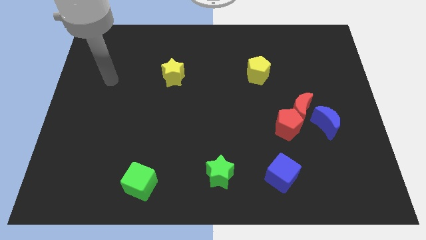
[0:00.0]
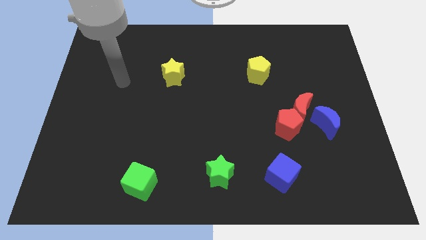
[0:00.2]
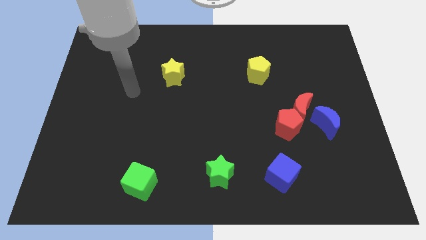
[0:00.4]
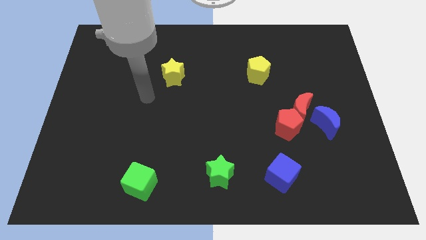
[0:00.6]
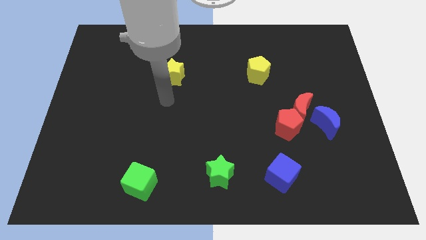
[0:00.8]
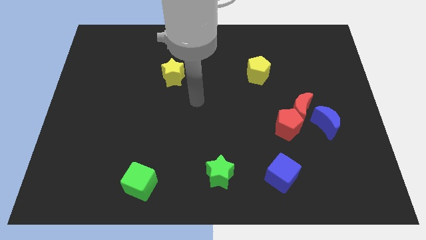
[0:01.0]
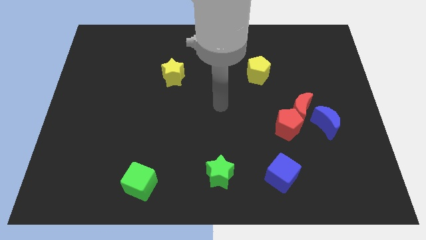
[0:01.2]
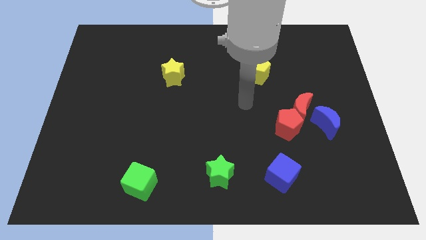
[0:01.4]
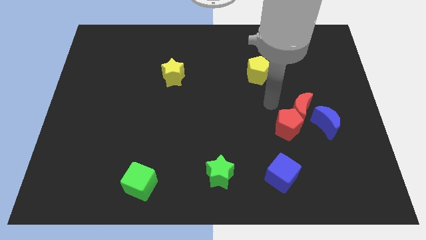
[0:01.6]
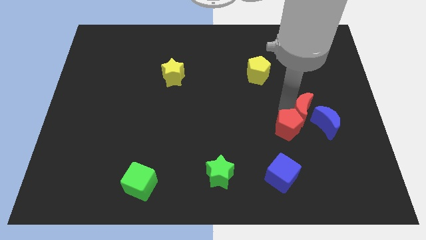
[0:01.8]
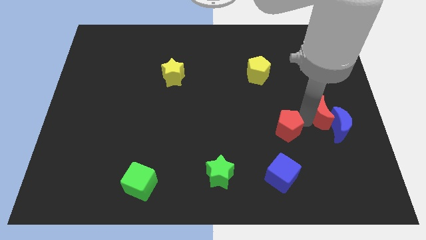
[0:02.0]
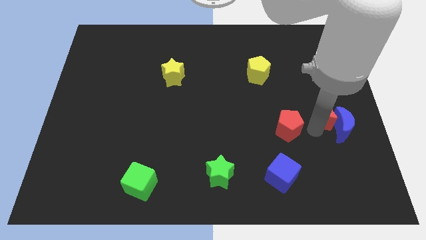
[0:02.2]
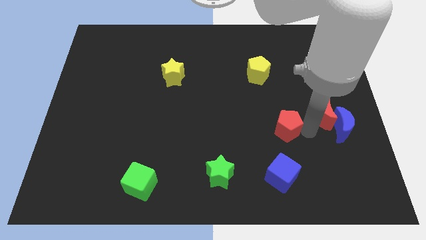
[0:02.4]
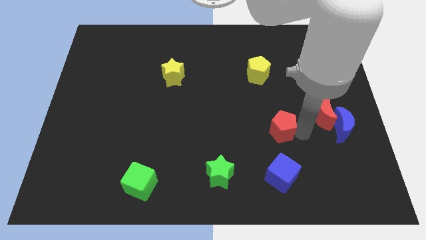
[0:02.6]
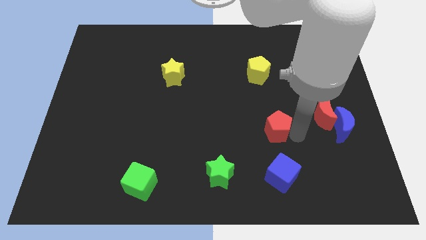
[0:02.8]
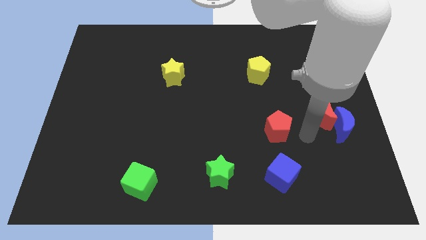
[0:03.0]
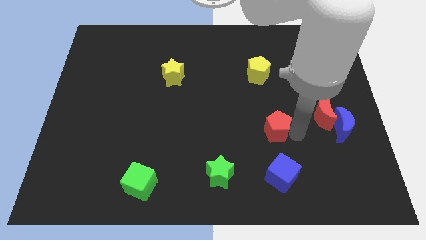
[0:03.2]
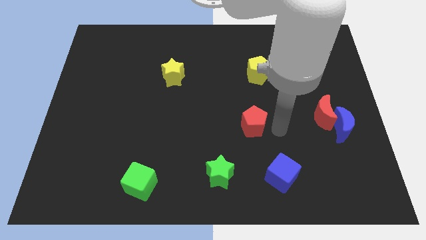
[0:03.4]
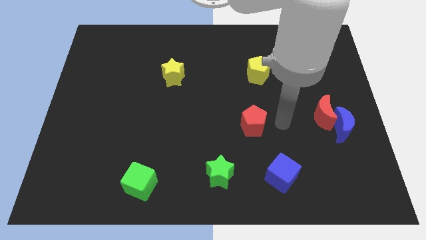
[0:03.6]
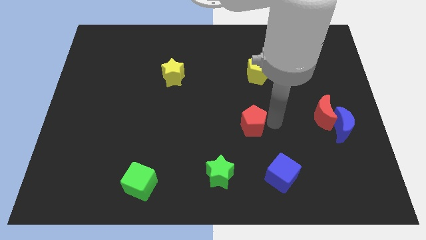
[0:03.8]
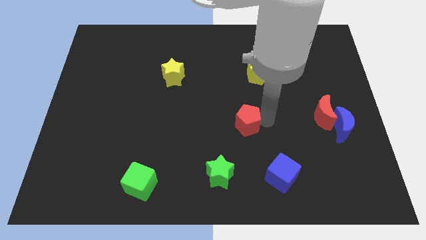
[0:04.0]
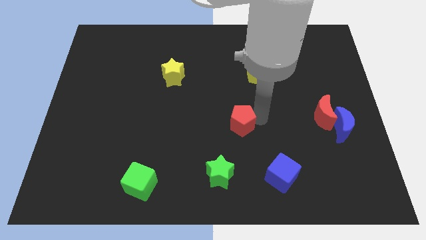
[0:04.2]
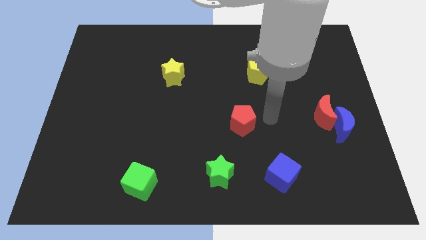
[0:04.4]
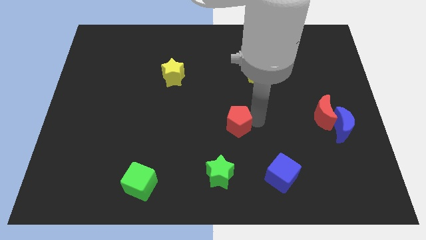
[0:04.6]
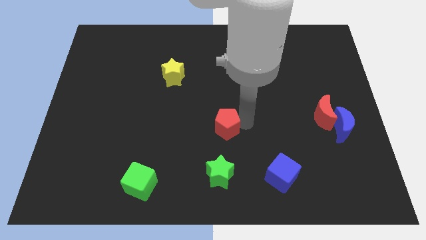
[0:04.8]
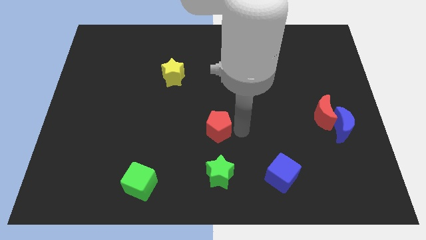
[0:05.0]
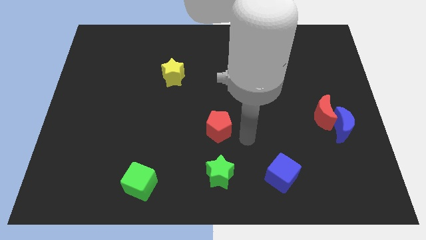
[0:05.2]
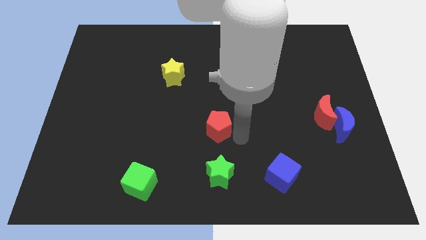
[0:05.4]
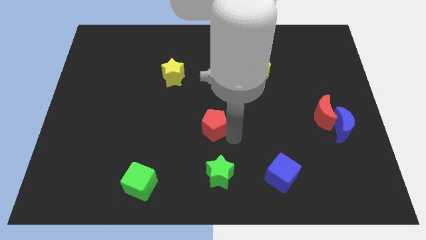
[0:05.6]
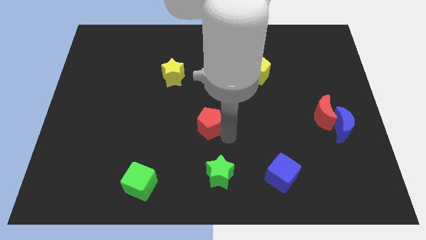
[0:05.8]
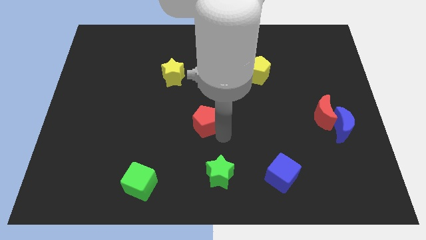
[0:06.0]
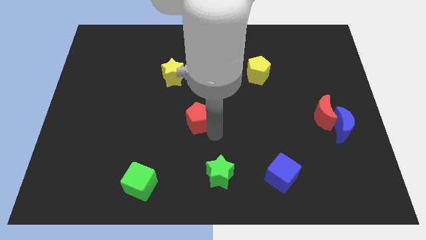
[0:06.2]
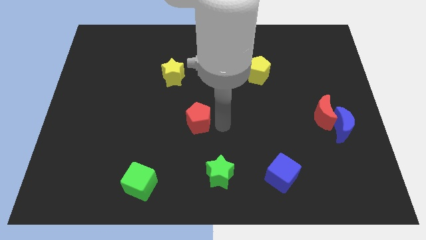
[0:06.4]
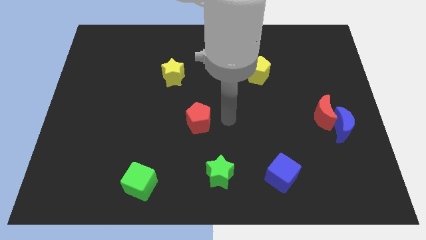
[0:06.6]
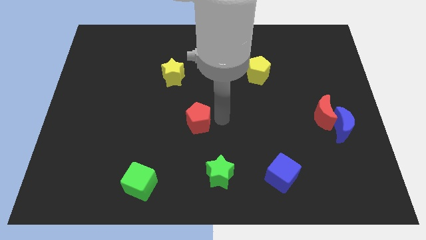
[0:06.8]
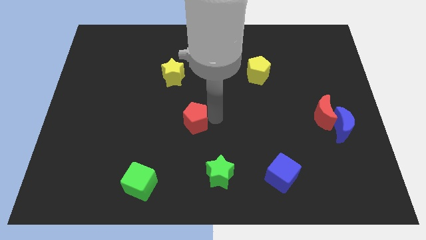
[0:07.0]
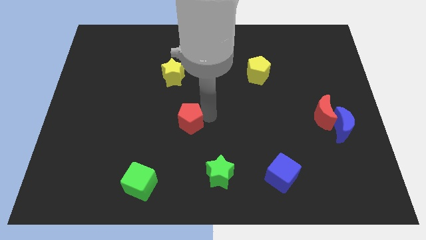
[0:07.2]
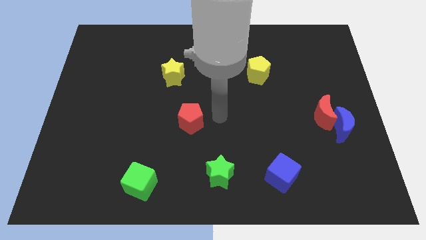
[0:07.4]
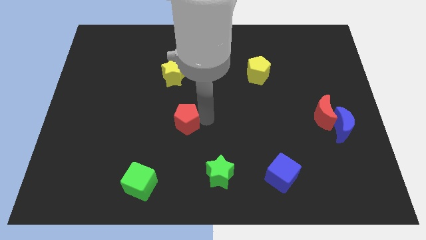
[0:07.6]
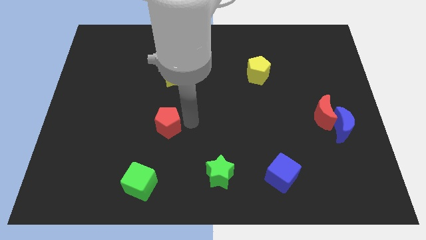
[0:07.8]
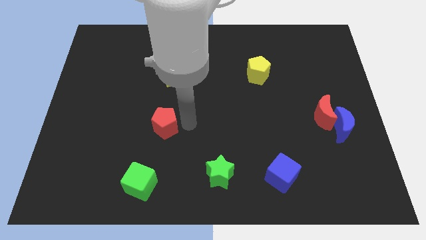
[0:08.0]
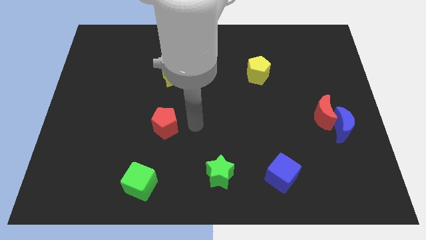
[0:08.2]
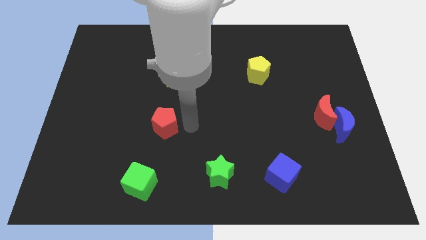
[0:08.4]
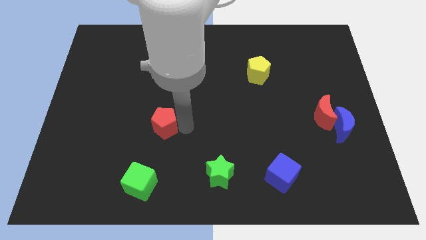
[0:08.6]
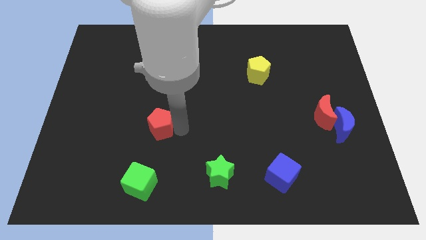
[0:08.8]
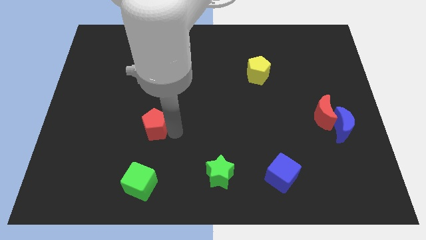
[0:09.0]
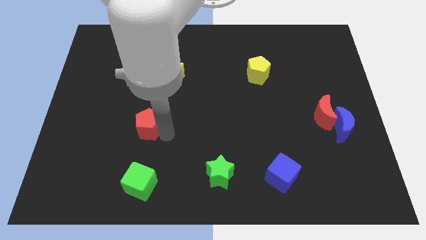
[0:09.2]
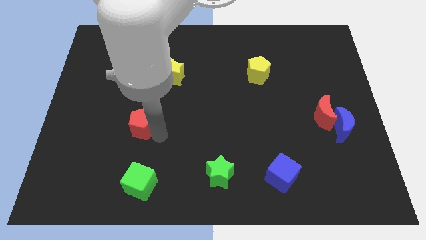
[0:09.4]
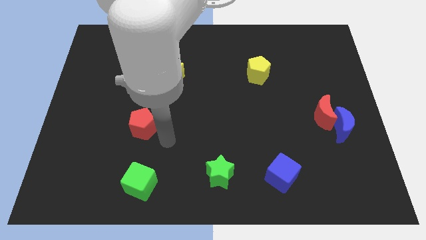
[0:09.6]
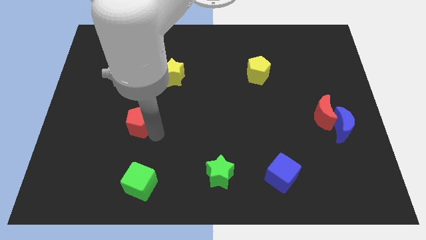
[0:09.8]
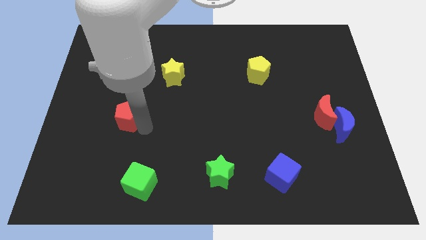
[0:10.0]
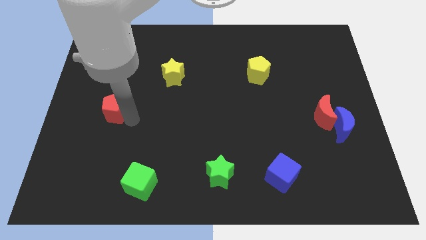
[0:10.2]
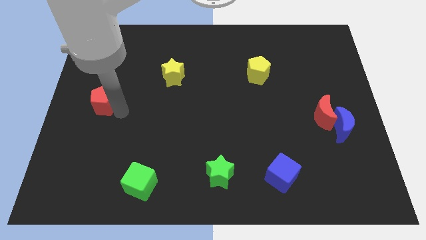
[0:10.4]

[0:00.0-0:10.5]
move the red pentagon to the left side
